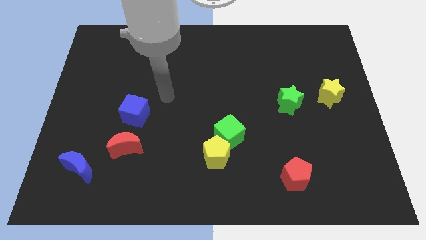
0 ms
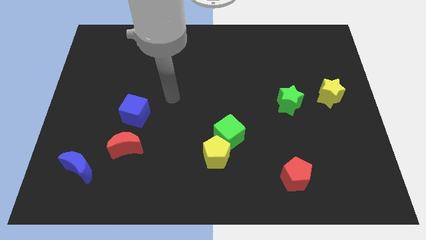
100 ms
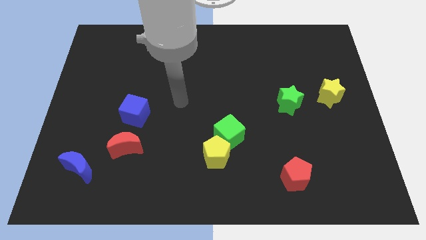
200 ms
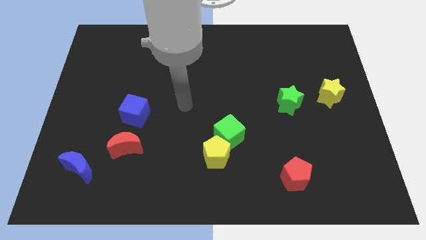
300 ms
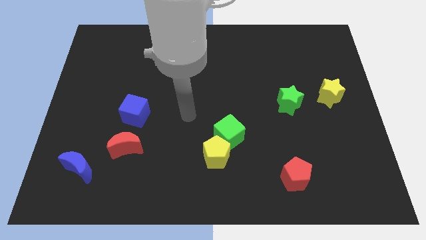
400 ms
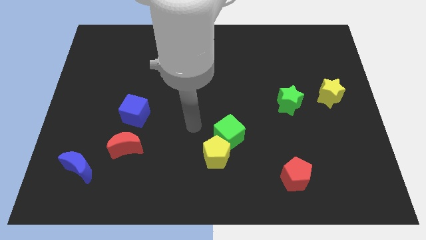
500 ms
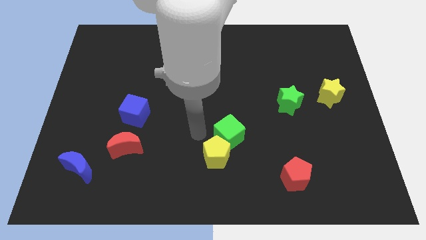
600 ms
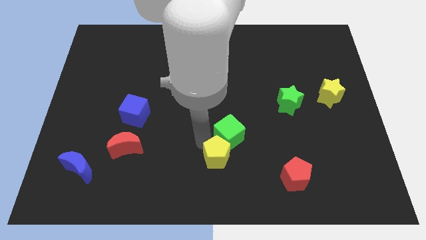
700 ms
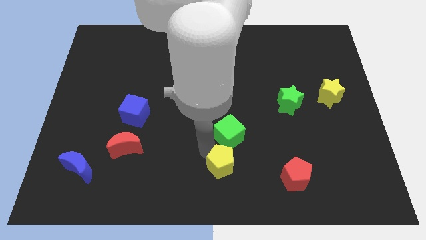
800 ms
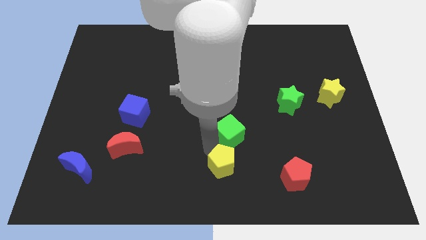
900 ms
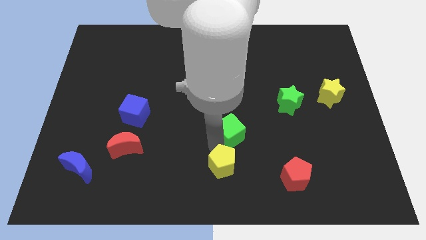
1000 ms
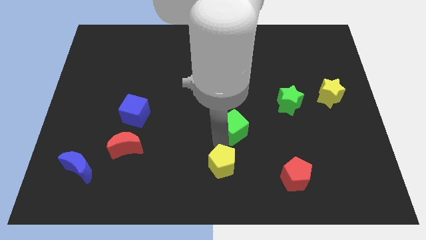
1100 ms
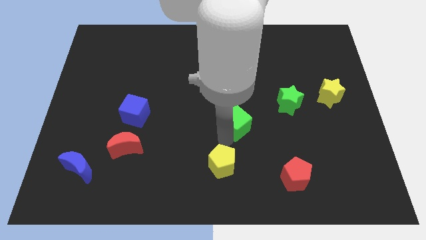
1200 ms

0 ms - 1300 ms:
move the green cube away from the yellow pentagon

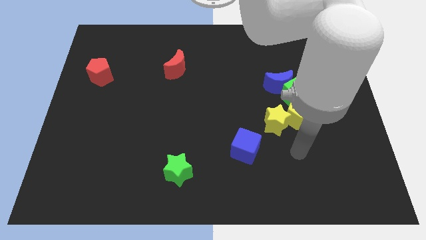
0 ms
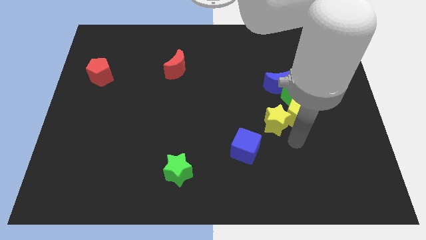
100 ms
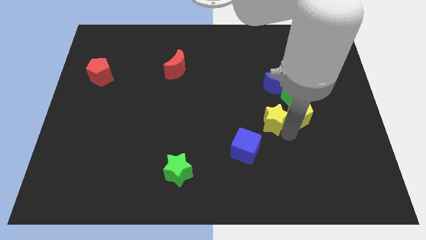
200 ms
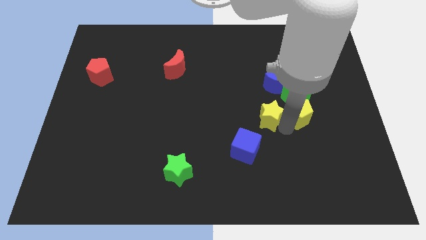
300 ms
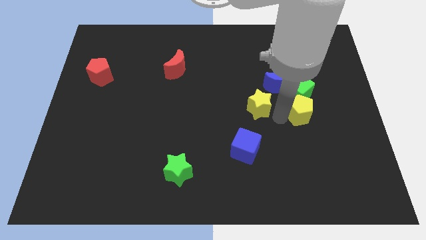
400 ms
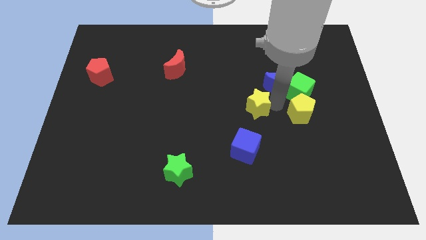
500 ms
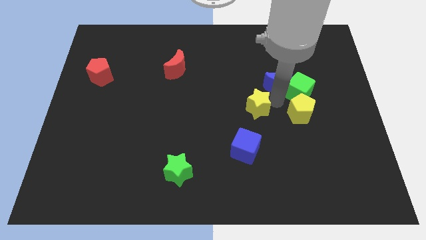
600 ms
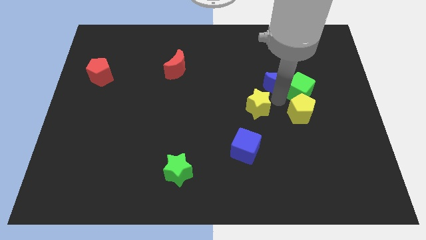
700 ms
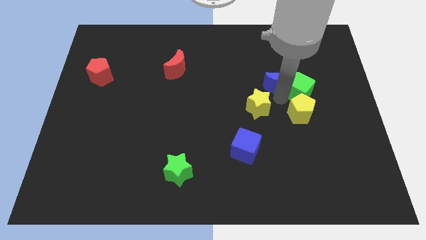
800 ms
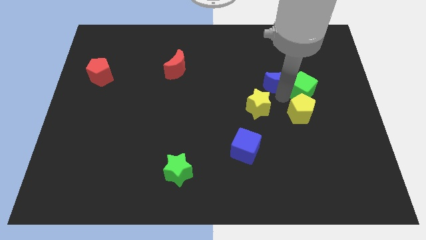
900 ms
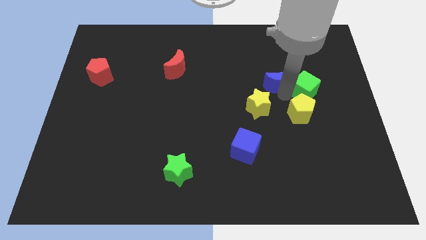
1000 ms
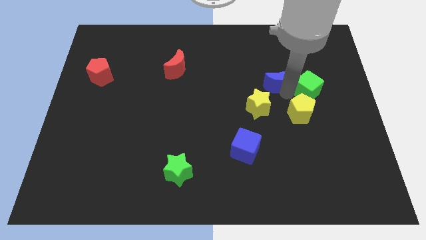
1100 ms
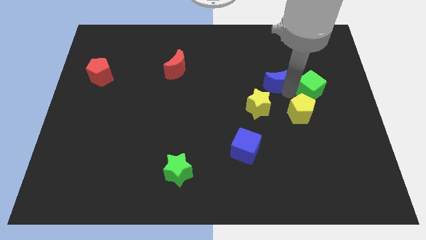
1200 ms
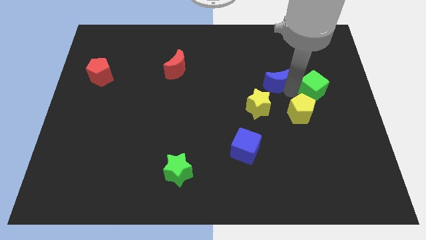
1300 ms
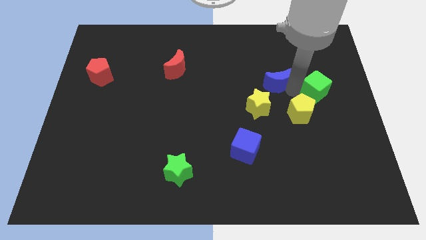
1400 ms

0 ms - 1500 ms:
pull the green cube apart from the group

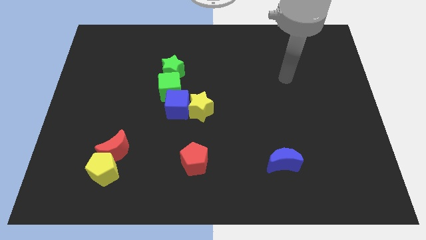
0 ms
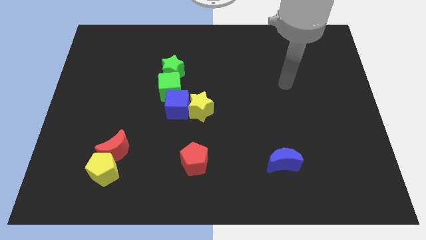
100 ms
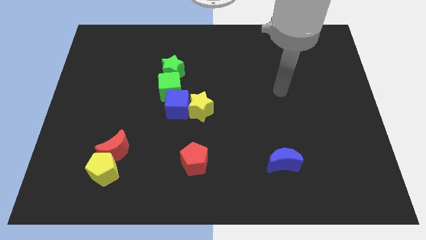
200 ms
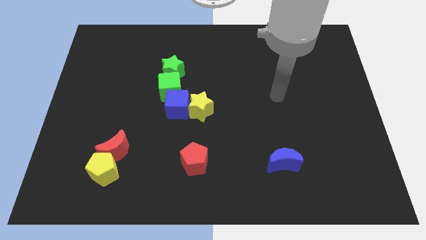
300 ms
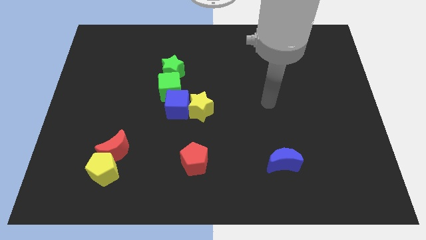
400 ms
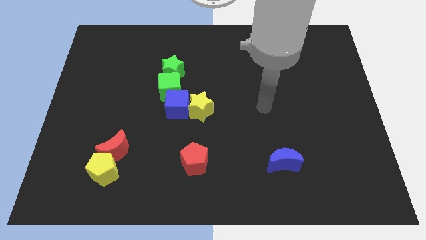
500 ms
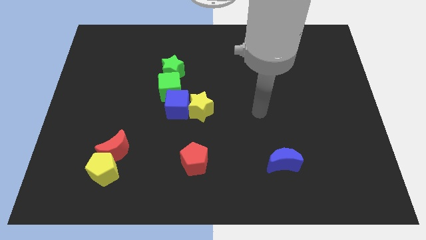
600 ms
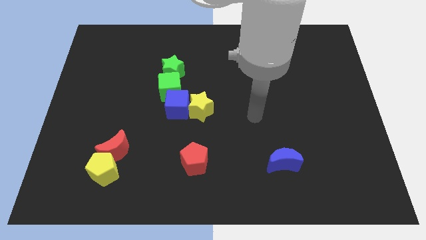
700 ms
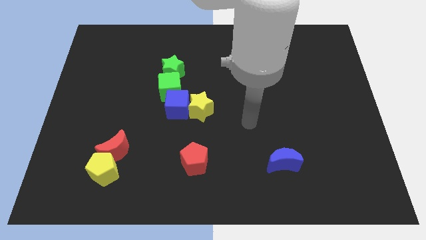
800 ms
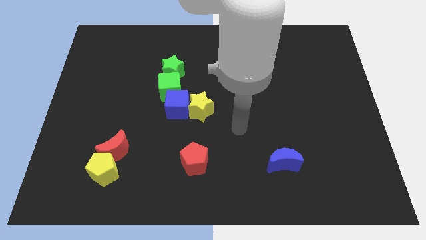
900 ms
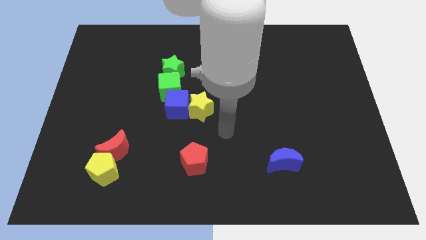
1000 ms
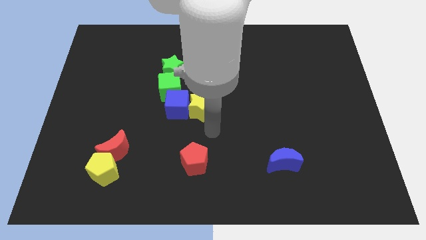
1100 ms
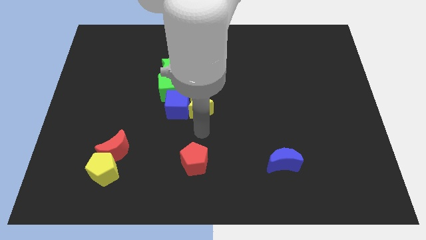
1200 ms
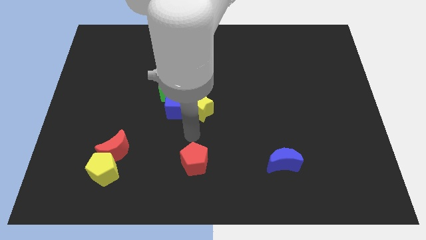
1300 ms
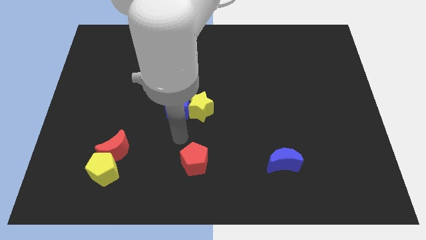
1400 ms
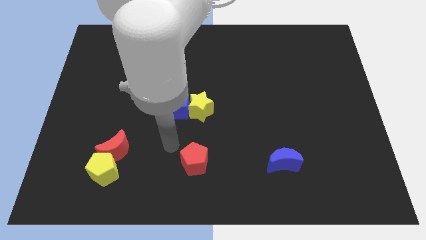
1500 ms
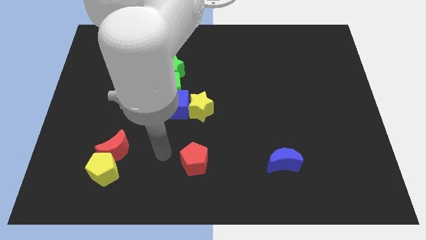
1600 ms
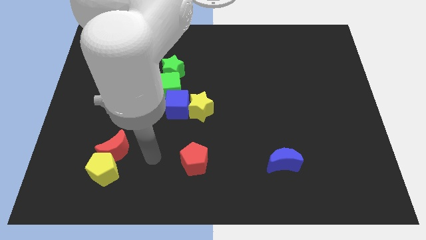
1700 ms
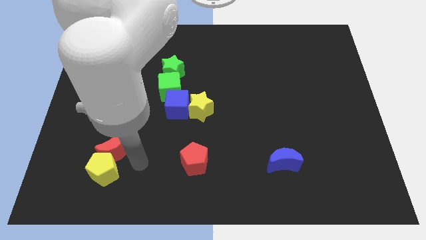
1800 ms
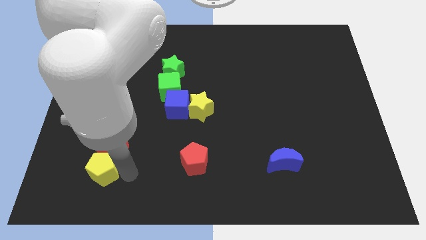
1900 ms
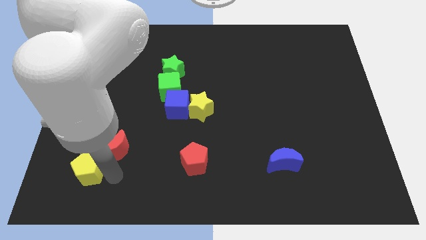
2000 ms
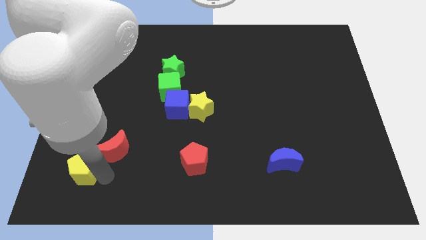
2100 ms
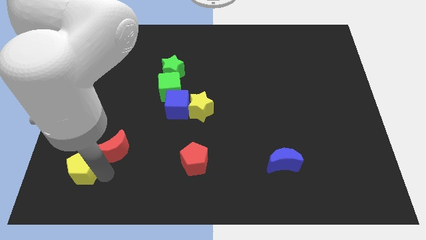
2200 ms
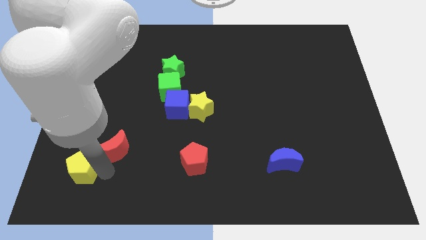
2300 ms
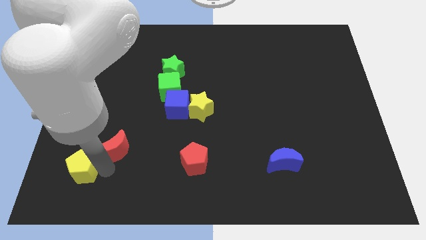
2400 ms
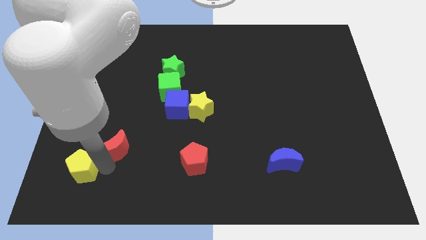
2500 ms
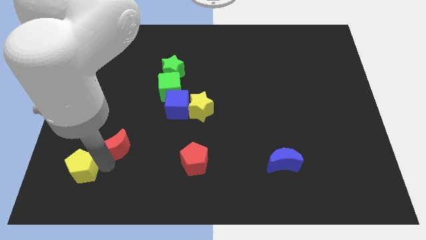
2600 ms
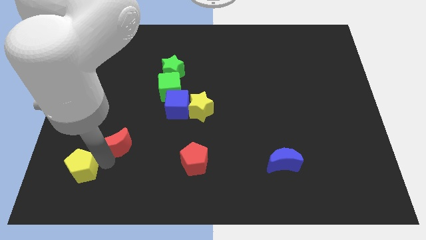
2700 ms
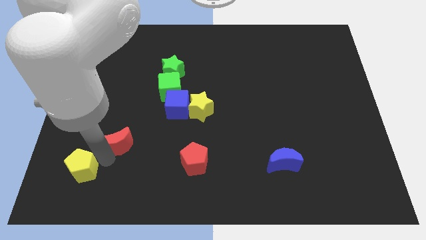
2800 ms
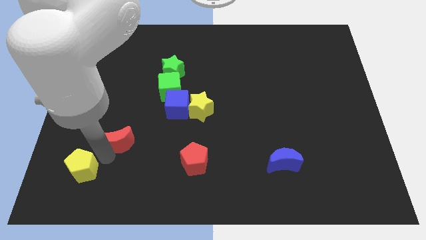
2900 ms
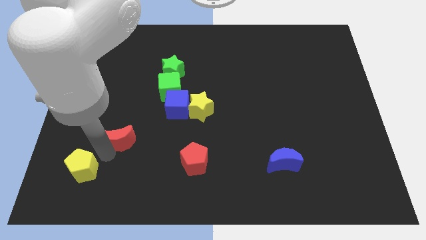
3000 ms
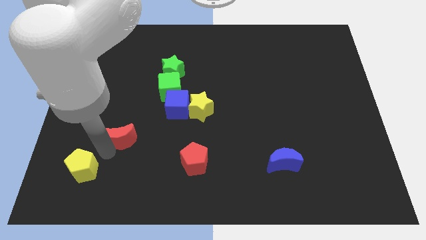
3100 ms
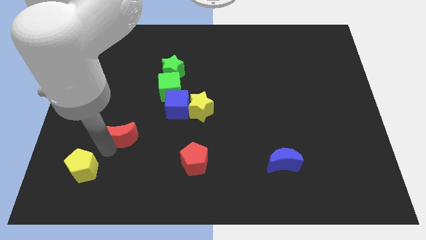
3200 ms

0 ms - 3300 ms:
move the red moon away from the yellow pentagon

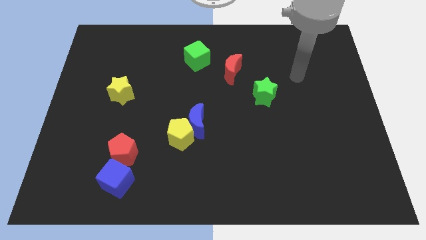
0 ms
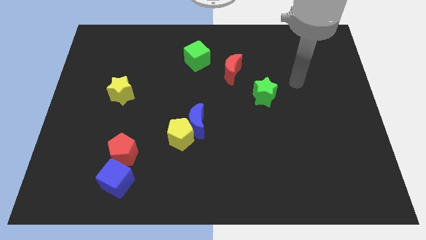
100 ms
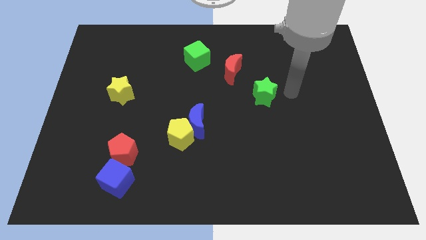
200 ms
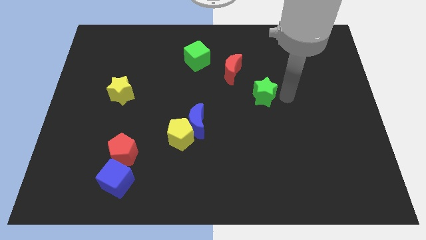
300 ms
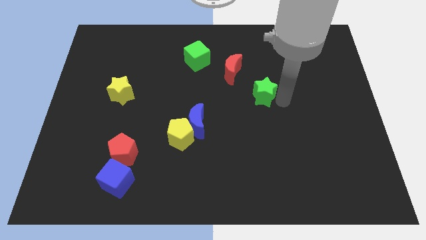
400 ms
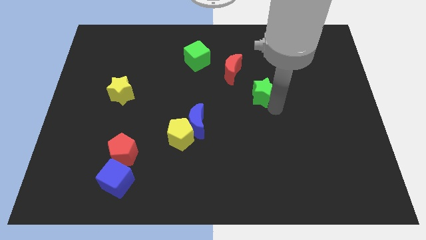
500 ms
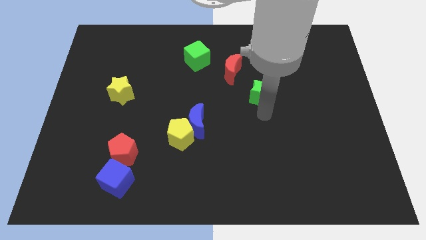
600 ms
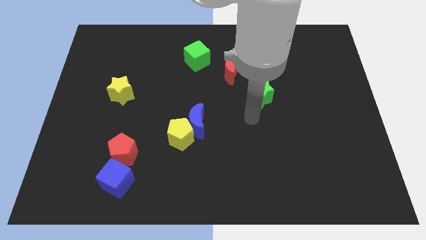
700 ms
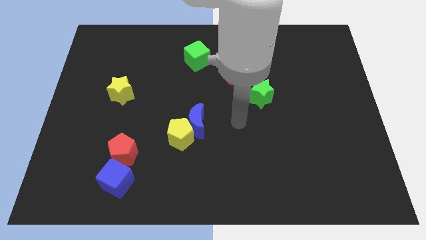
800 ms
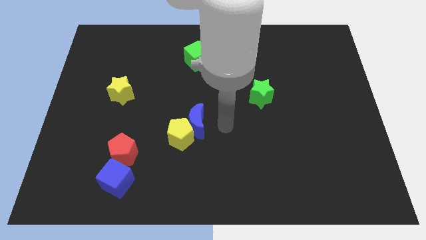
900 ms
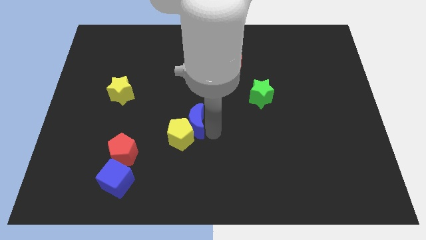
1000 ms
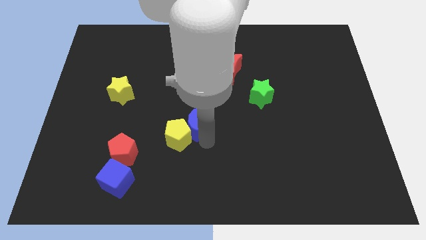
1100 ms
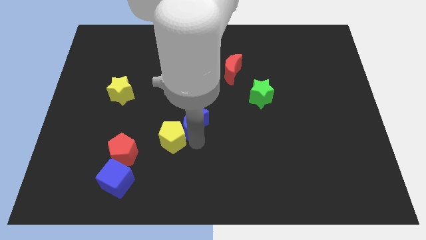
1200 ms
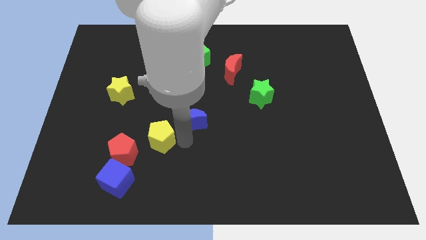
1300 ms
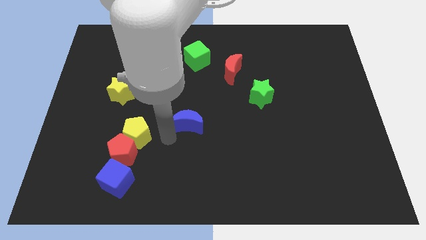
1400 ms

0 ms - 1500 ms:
pull the blue moon apart from the yellow pentagon

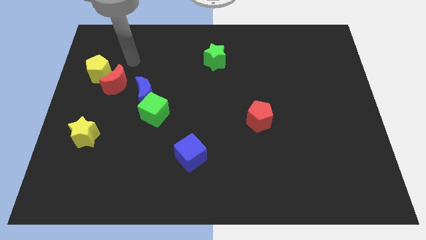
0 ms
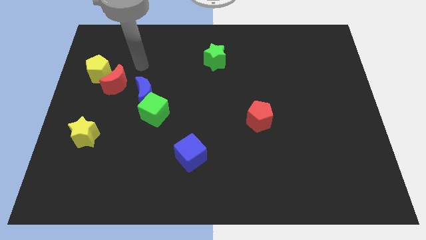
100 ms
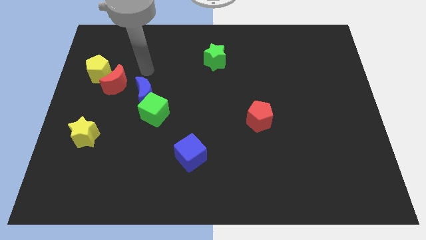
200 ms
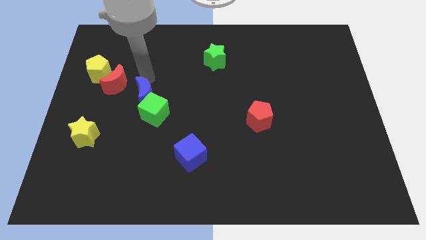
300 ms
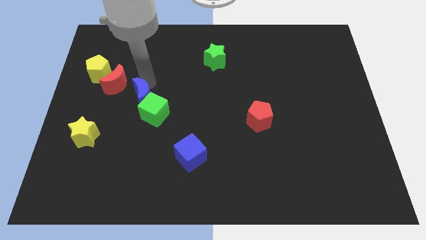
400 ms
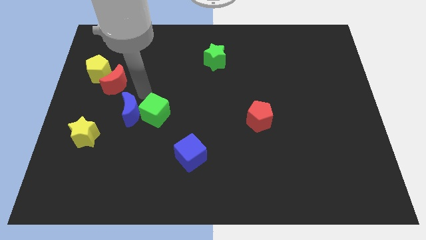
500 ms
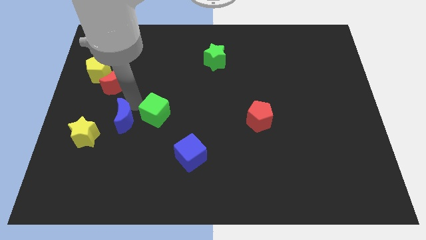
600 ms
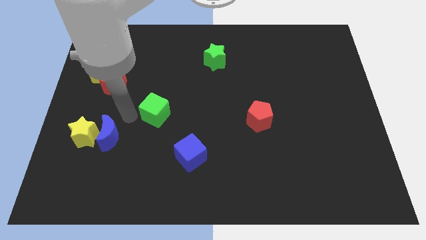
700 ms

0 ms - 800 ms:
move the green cube away from the blue moon

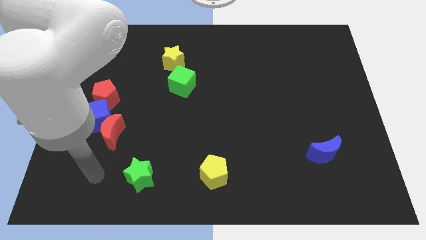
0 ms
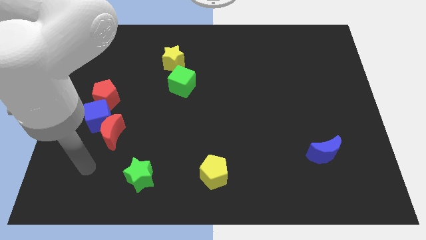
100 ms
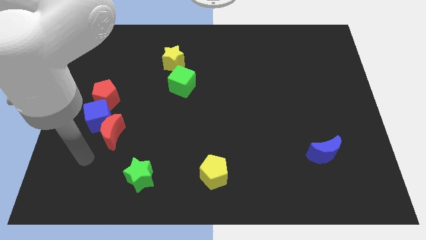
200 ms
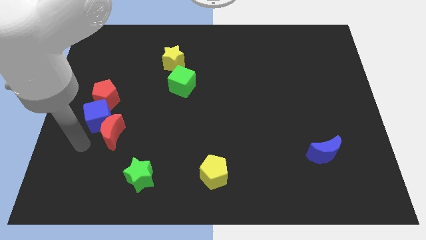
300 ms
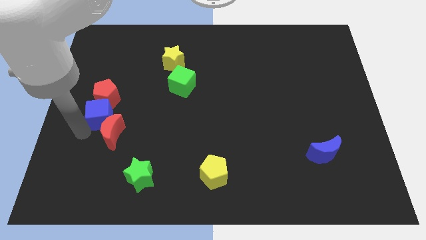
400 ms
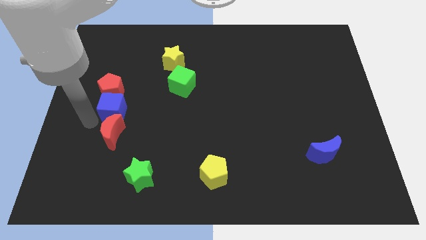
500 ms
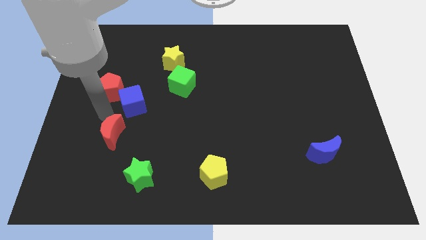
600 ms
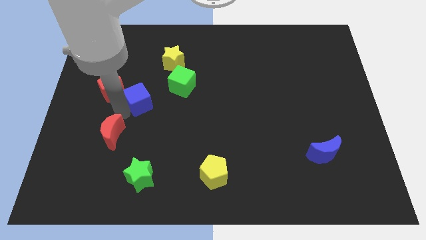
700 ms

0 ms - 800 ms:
separate the red moon from the blue cube

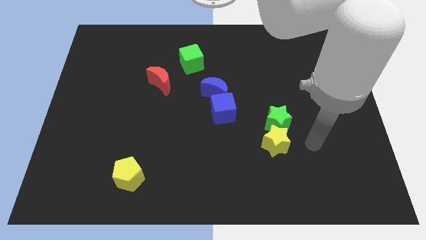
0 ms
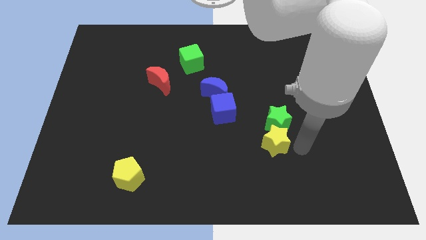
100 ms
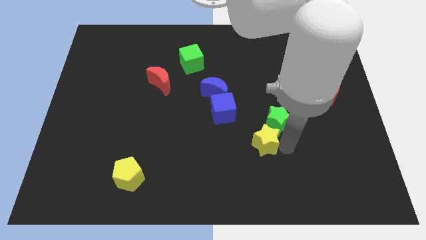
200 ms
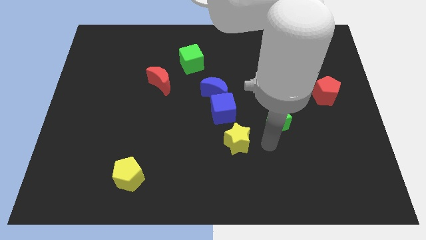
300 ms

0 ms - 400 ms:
move the green star away from the yellow star
